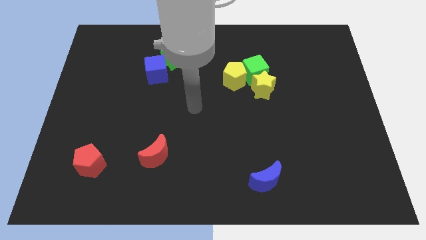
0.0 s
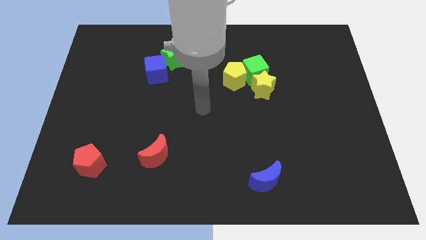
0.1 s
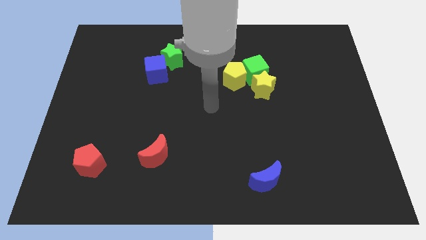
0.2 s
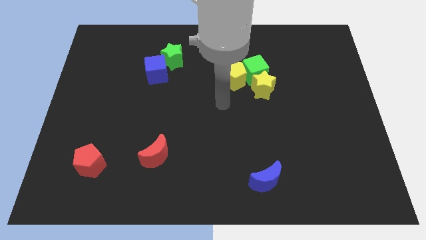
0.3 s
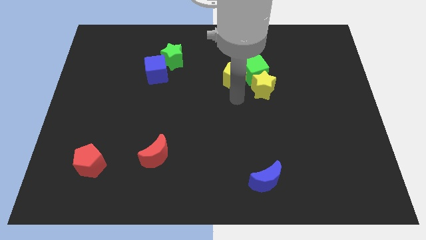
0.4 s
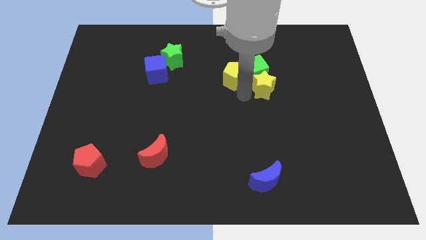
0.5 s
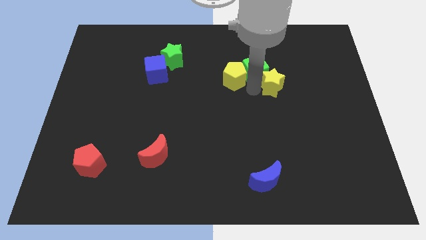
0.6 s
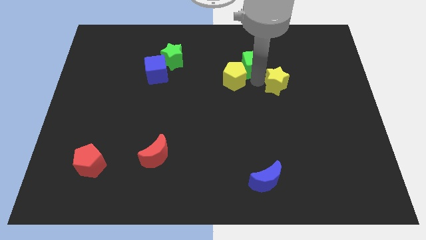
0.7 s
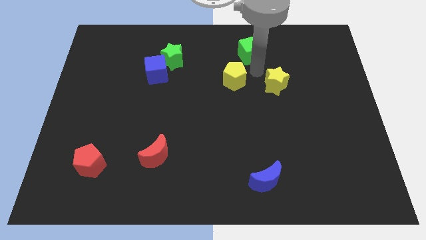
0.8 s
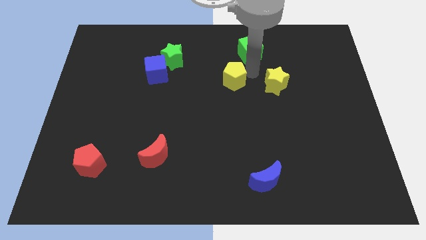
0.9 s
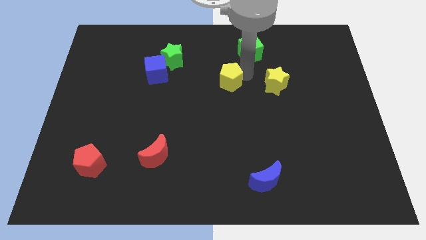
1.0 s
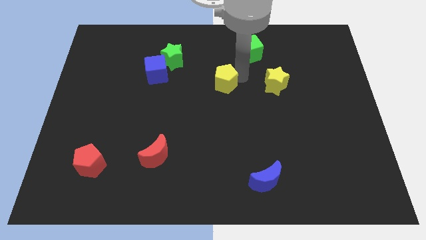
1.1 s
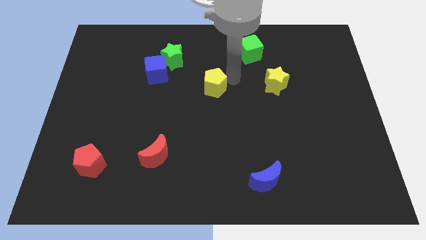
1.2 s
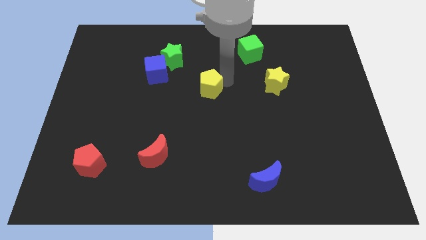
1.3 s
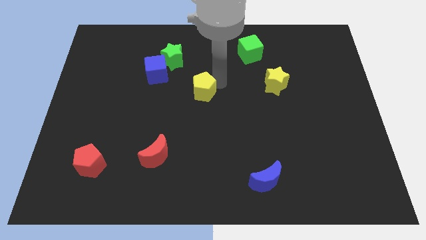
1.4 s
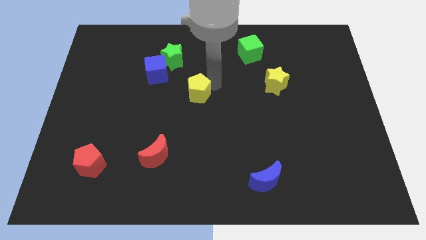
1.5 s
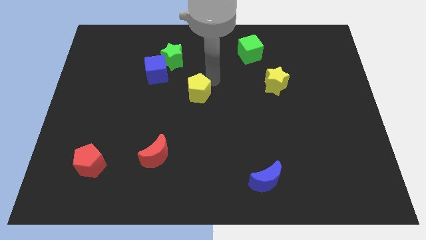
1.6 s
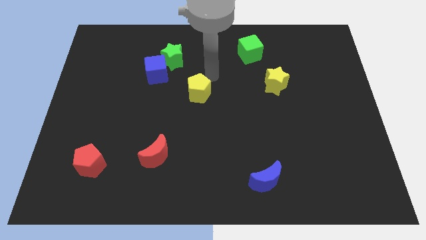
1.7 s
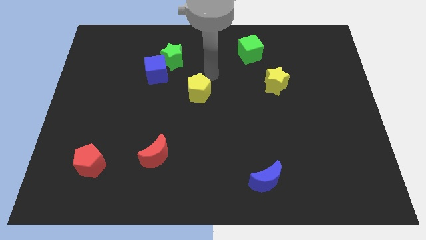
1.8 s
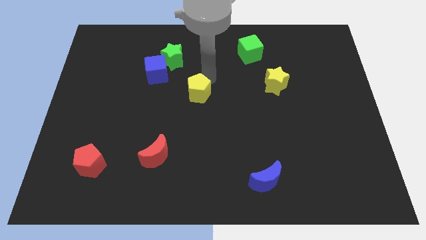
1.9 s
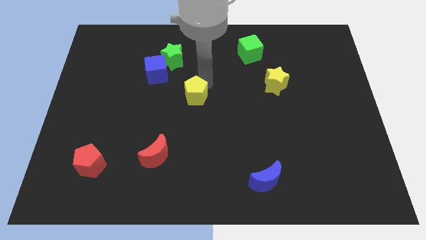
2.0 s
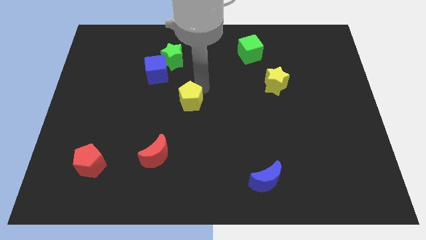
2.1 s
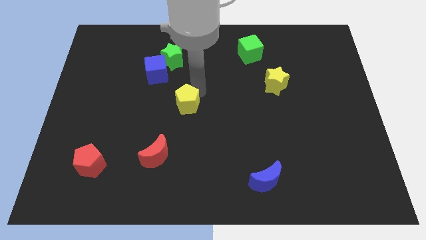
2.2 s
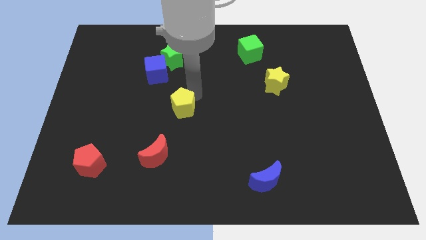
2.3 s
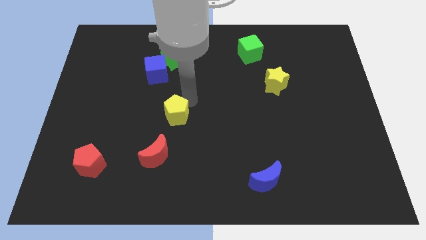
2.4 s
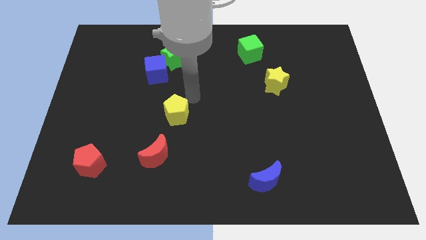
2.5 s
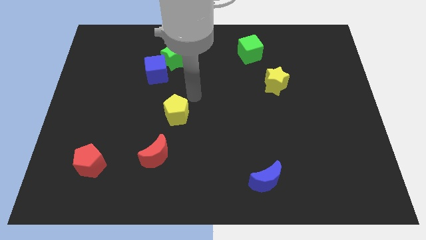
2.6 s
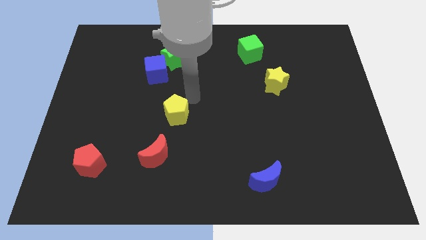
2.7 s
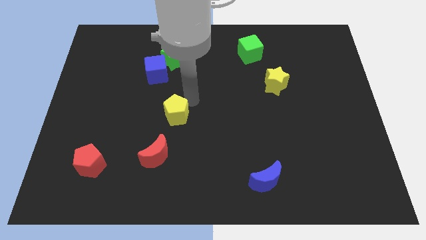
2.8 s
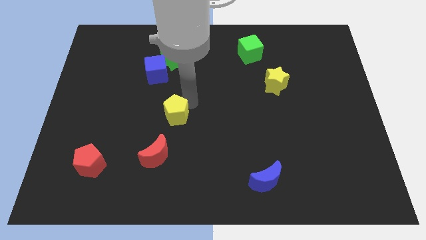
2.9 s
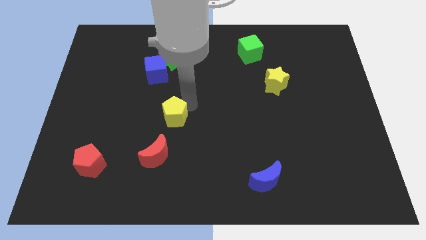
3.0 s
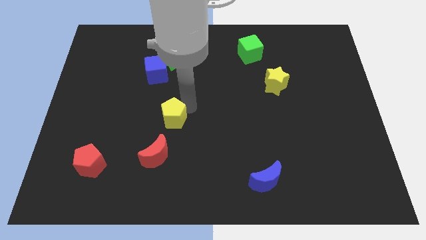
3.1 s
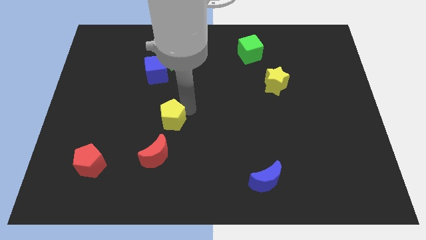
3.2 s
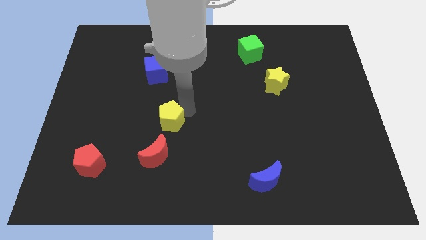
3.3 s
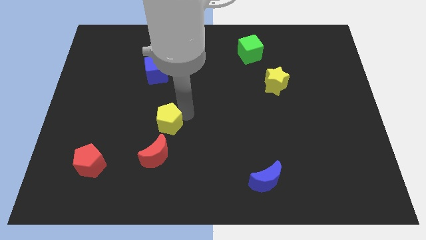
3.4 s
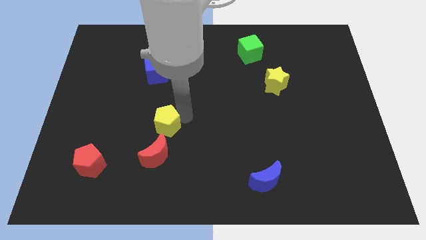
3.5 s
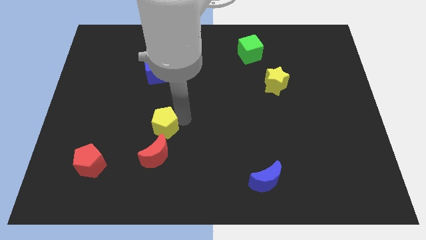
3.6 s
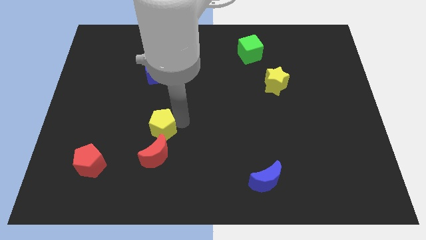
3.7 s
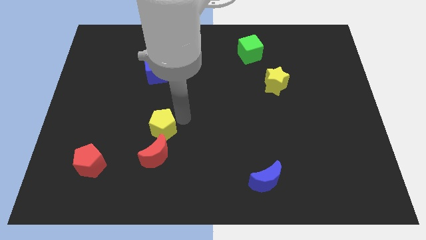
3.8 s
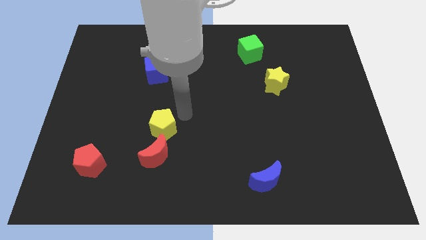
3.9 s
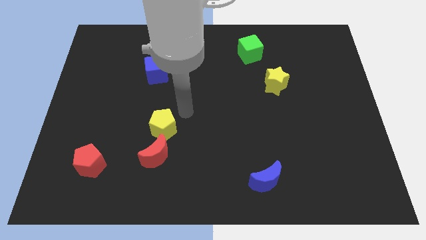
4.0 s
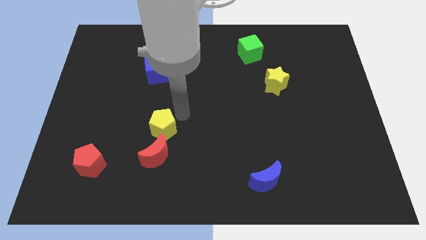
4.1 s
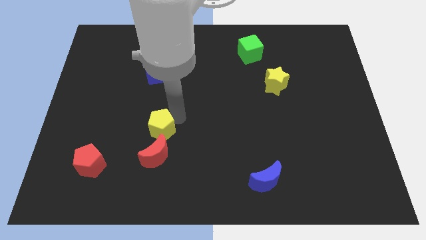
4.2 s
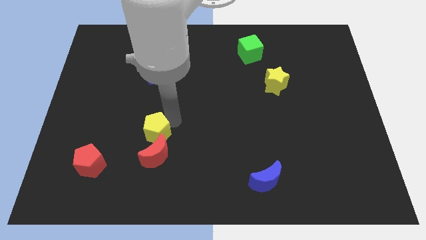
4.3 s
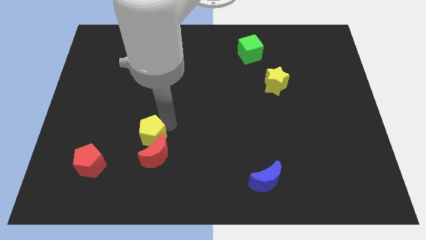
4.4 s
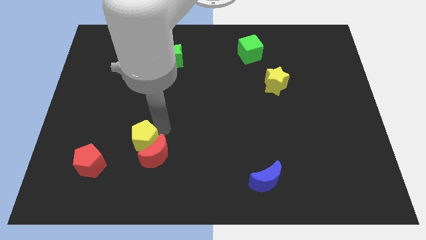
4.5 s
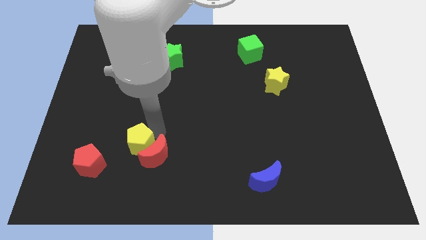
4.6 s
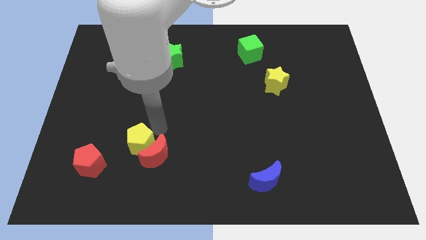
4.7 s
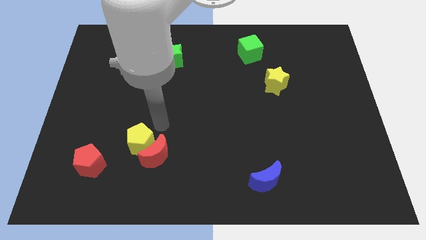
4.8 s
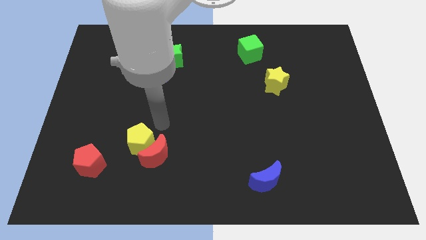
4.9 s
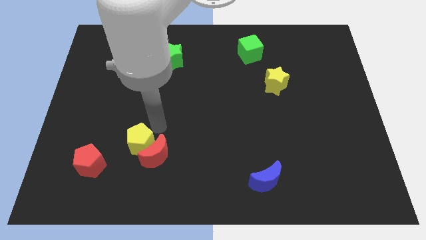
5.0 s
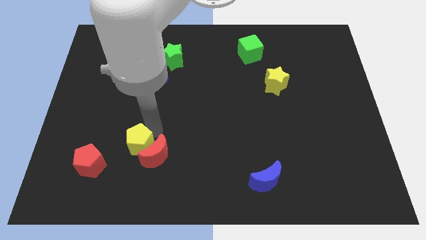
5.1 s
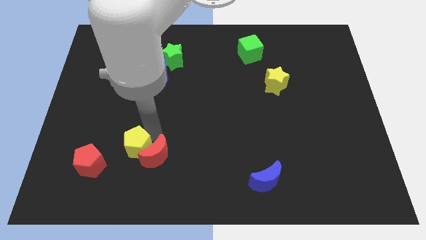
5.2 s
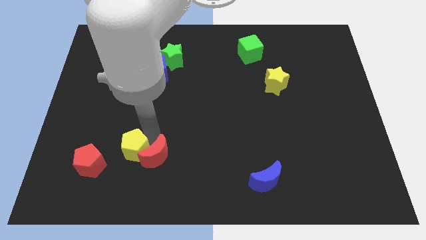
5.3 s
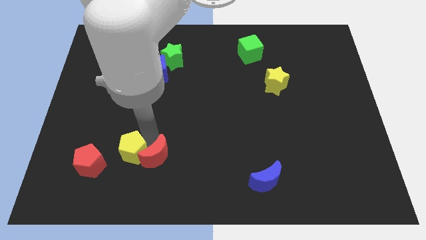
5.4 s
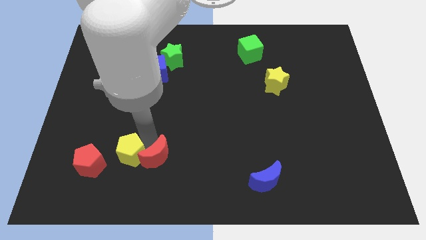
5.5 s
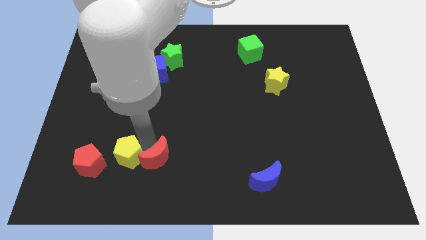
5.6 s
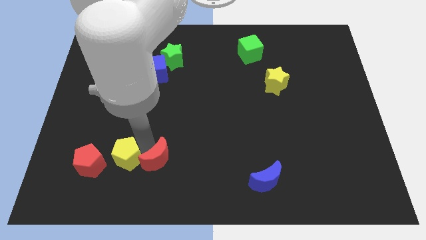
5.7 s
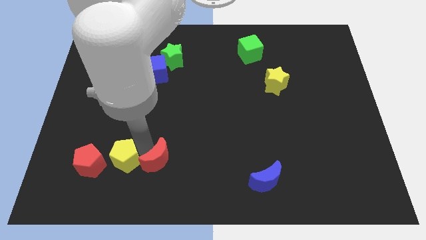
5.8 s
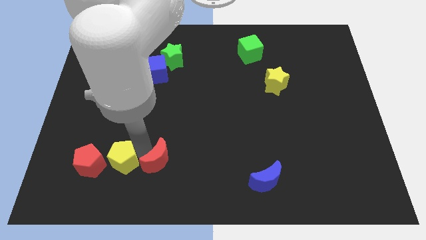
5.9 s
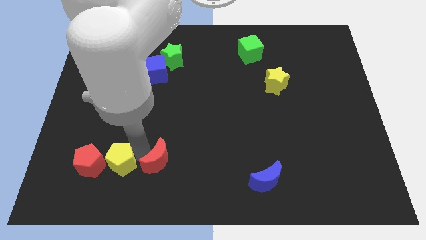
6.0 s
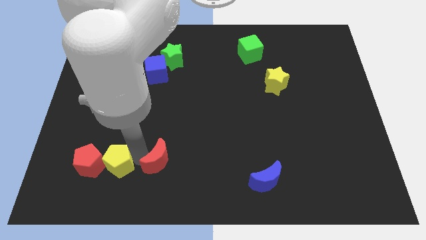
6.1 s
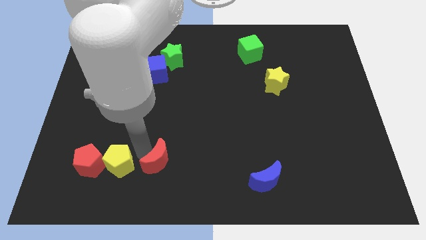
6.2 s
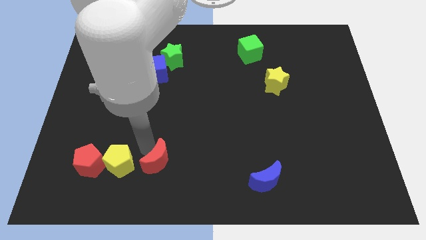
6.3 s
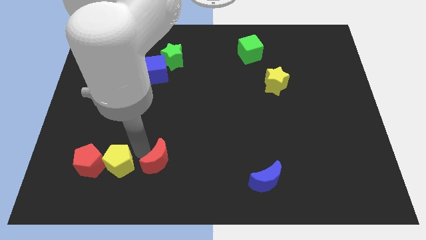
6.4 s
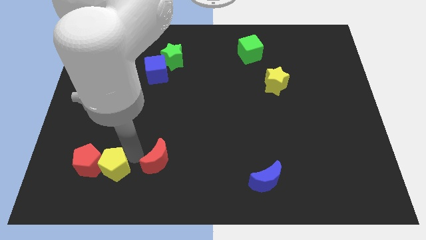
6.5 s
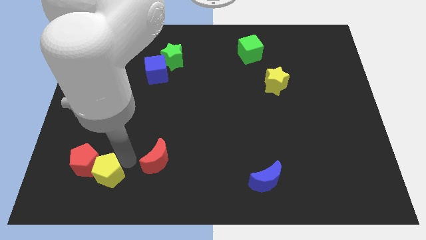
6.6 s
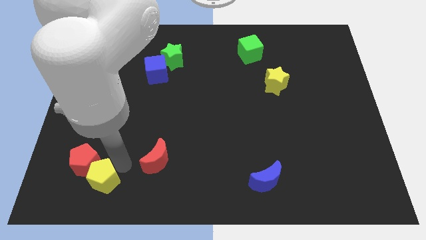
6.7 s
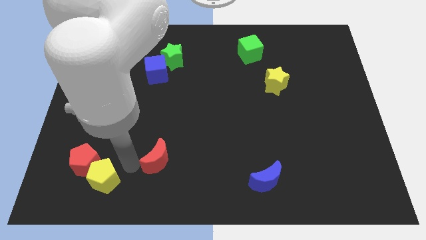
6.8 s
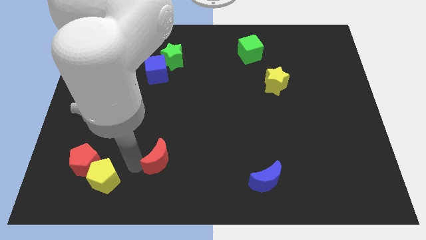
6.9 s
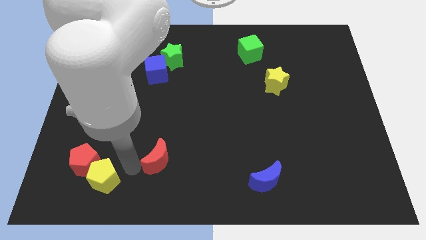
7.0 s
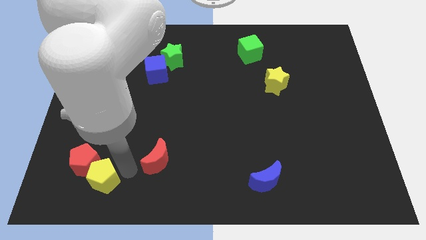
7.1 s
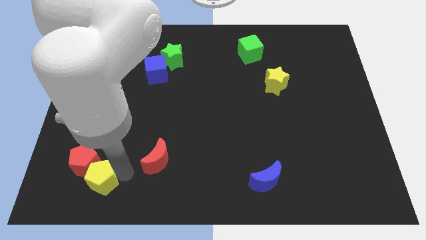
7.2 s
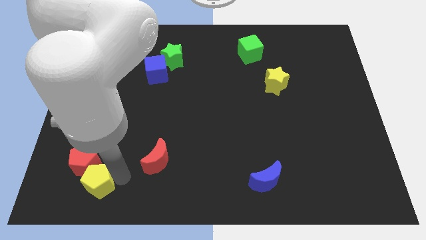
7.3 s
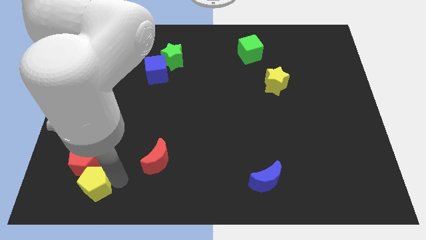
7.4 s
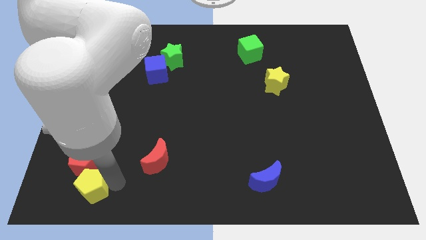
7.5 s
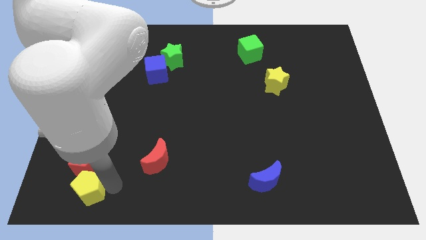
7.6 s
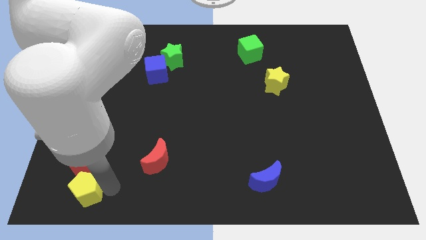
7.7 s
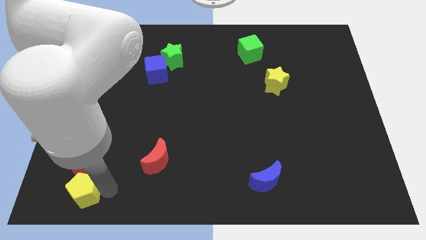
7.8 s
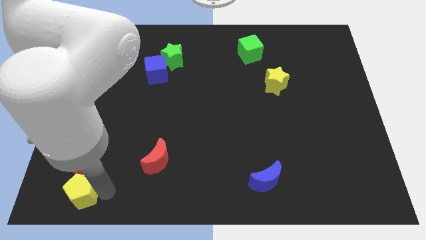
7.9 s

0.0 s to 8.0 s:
put the yellow pentagon to the bottom left
